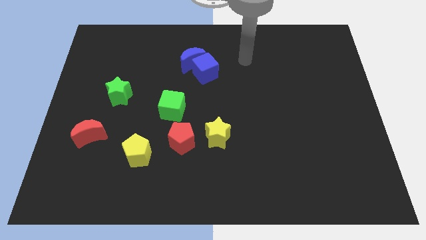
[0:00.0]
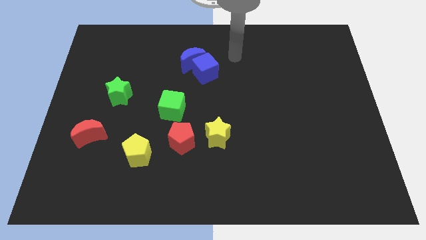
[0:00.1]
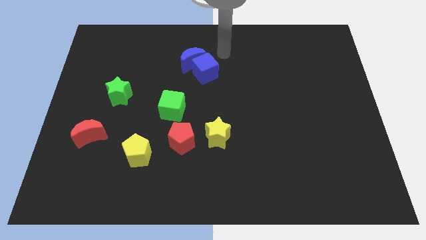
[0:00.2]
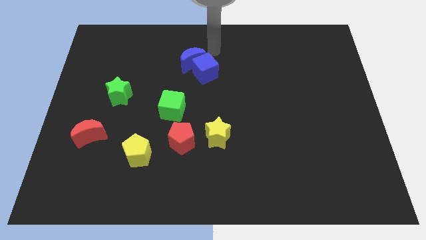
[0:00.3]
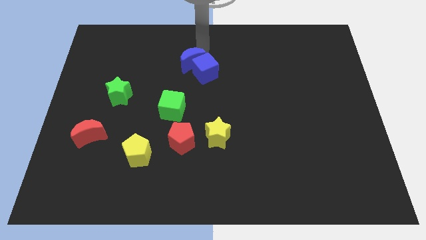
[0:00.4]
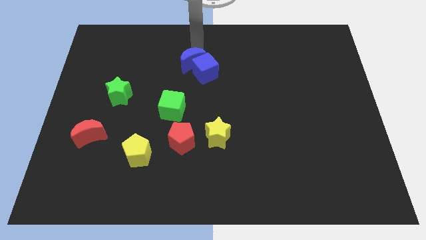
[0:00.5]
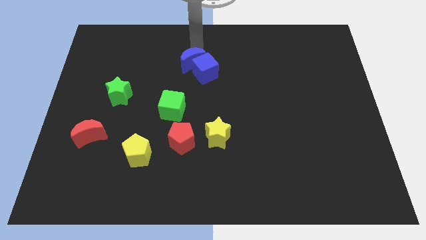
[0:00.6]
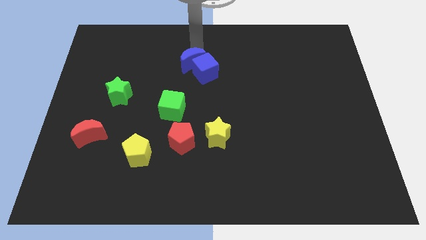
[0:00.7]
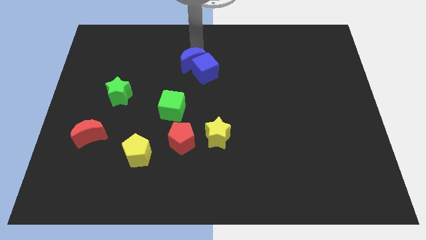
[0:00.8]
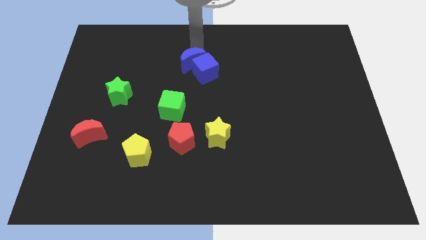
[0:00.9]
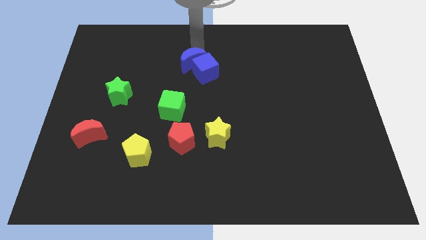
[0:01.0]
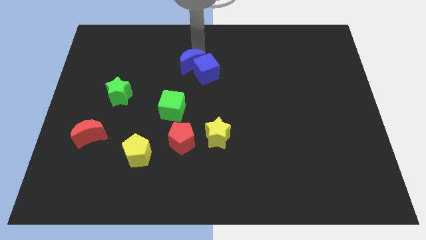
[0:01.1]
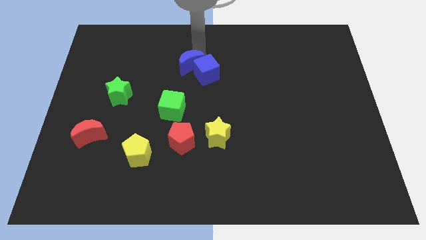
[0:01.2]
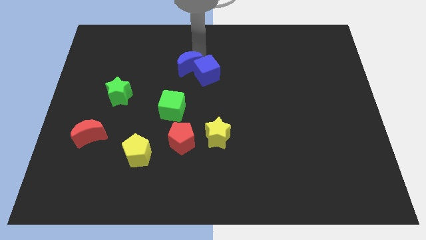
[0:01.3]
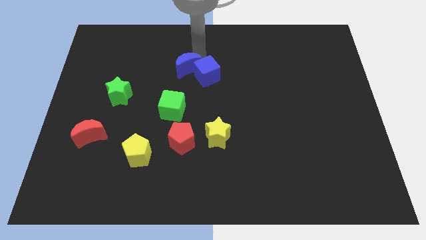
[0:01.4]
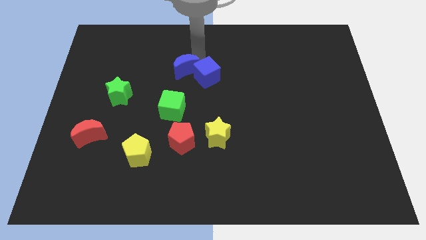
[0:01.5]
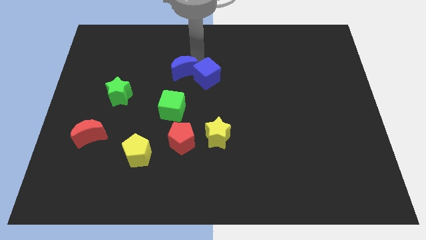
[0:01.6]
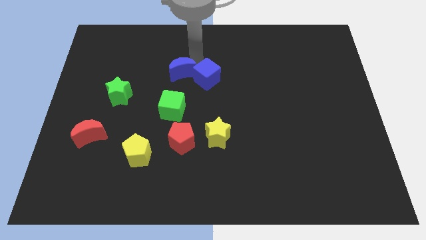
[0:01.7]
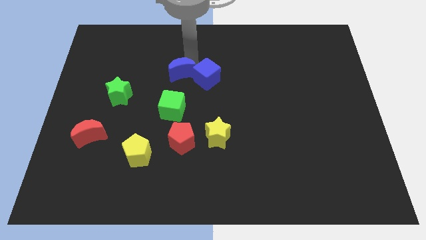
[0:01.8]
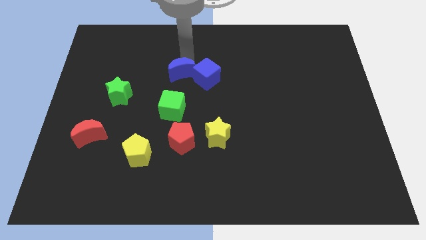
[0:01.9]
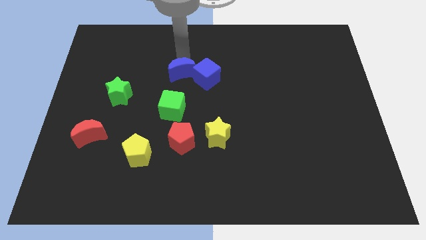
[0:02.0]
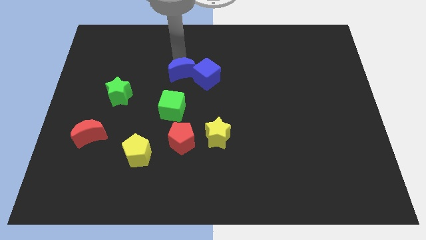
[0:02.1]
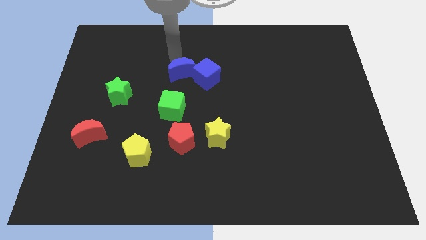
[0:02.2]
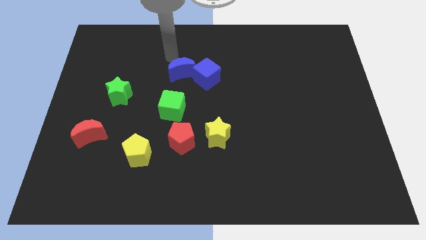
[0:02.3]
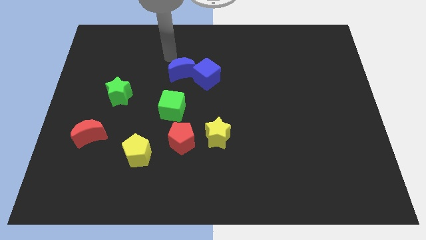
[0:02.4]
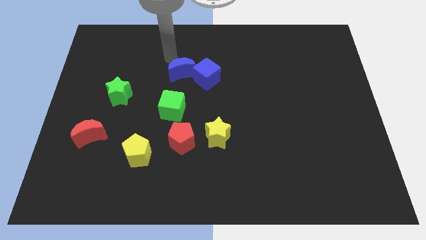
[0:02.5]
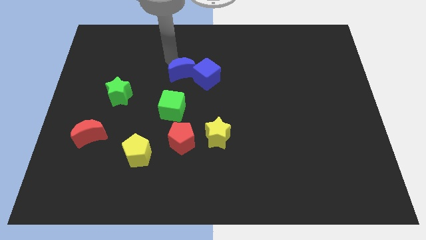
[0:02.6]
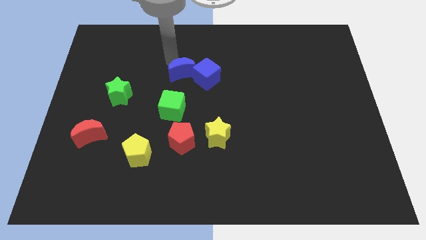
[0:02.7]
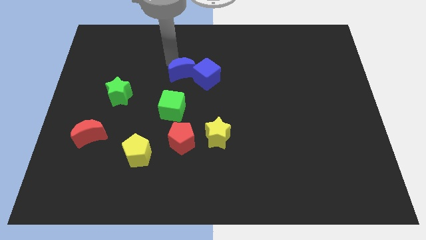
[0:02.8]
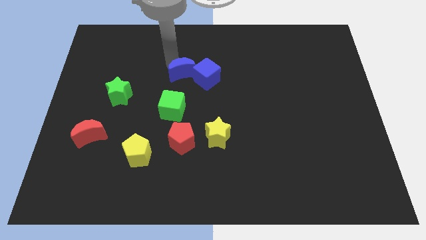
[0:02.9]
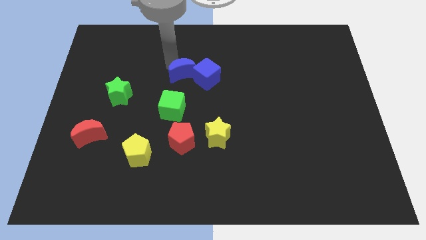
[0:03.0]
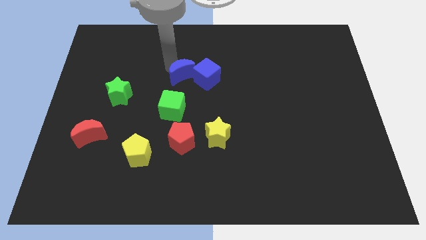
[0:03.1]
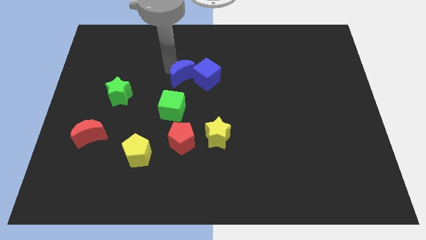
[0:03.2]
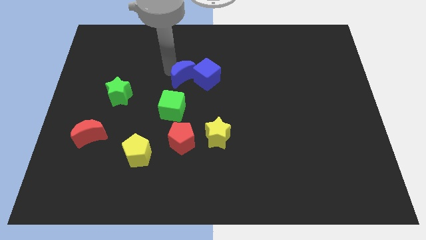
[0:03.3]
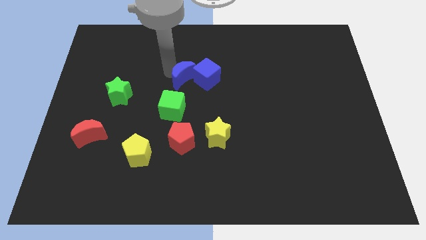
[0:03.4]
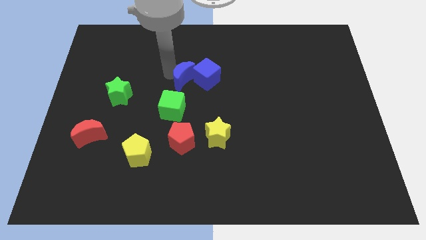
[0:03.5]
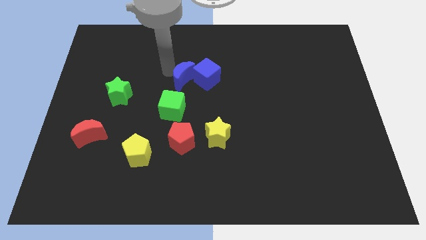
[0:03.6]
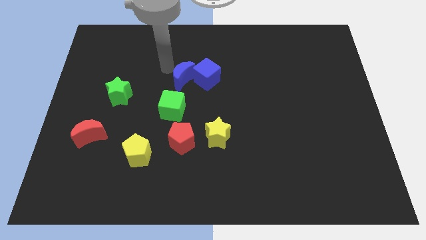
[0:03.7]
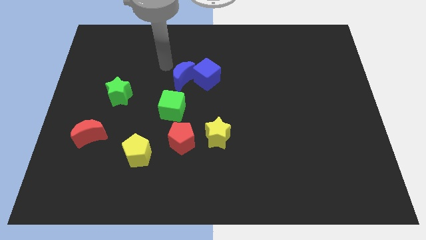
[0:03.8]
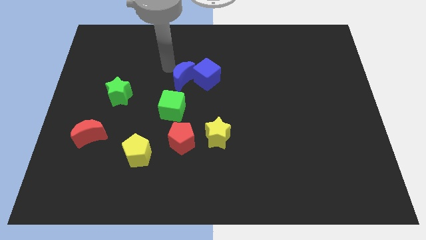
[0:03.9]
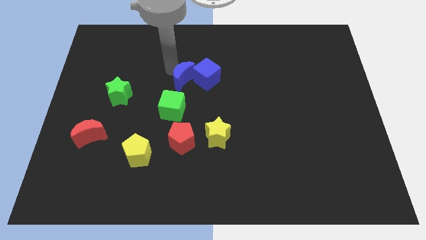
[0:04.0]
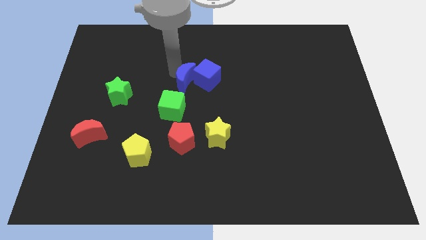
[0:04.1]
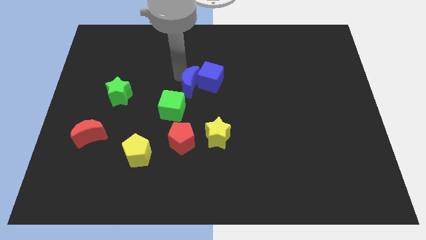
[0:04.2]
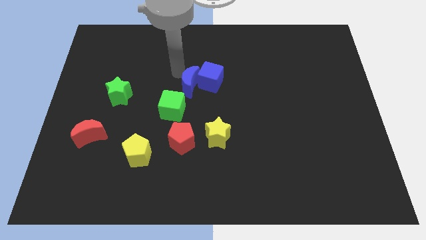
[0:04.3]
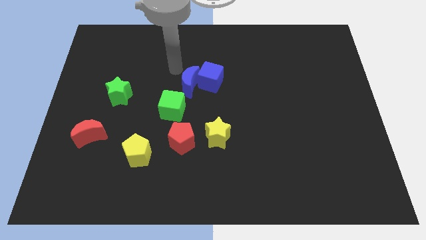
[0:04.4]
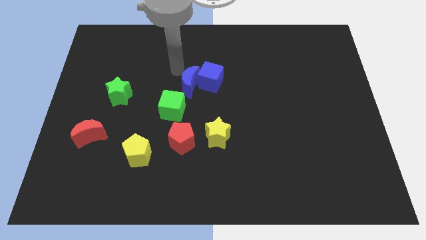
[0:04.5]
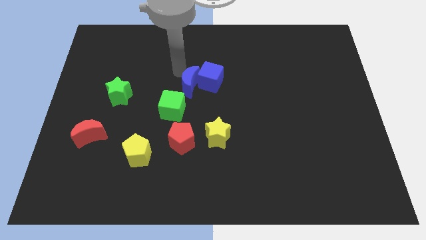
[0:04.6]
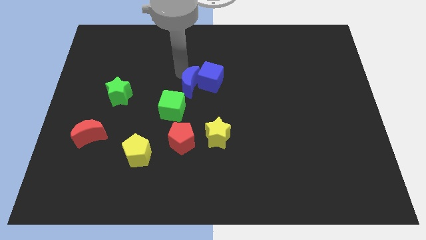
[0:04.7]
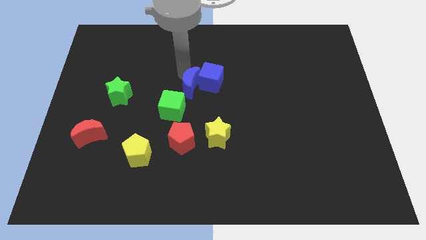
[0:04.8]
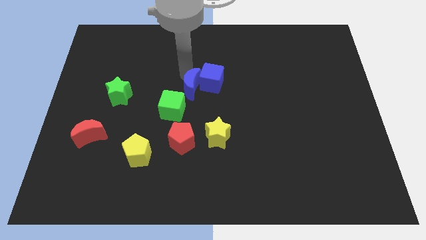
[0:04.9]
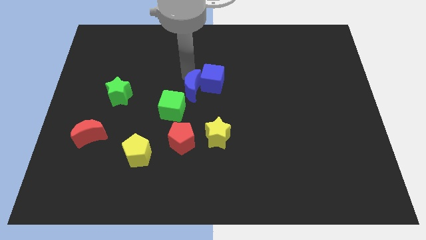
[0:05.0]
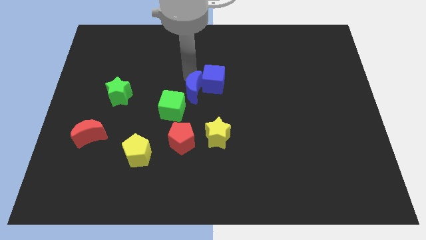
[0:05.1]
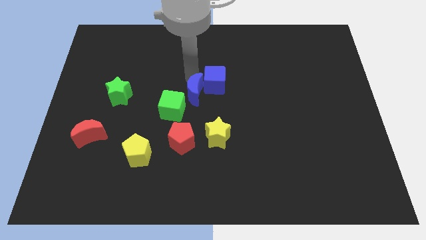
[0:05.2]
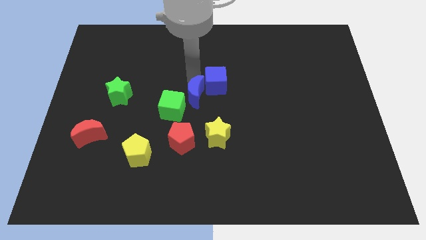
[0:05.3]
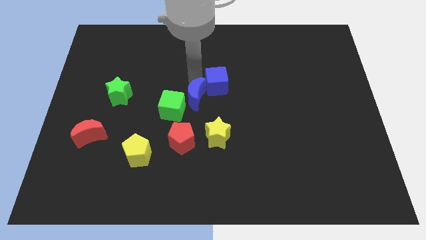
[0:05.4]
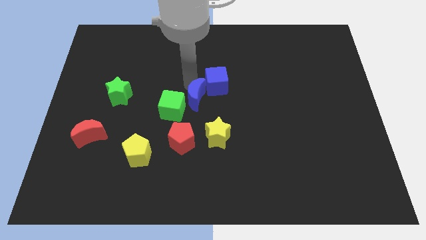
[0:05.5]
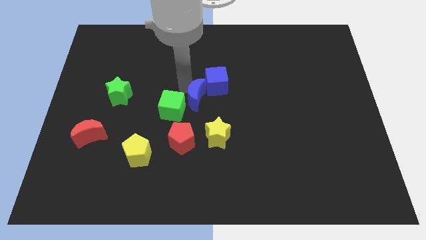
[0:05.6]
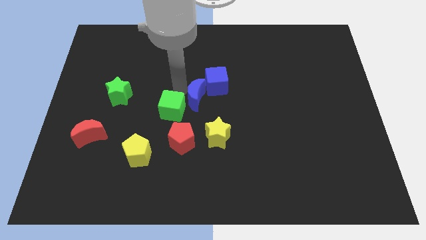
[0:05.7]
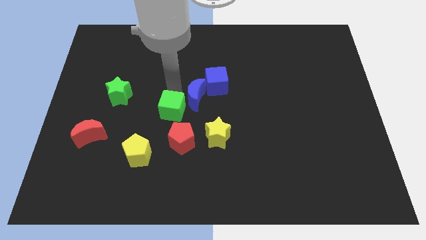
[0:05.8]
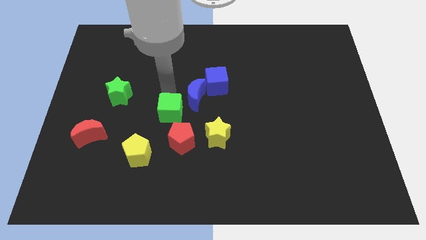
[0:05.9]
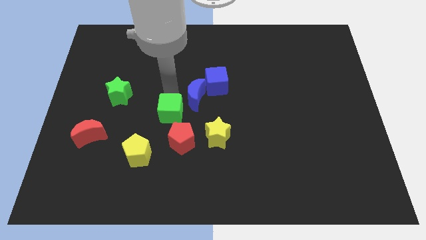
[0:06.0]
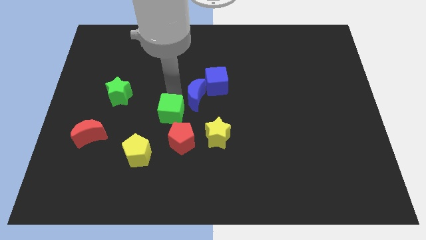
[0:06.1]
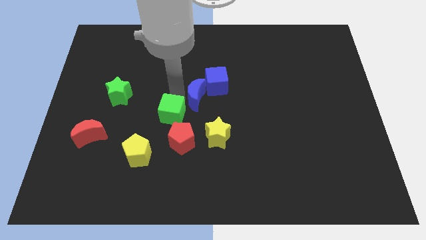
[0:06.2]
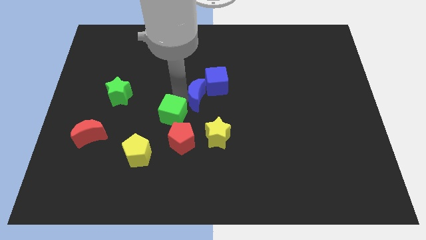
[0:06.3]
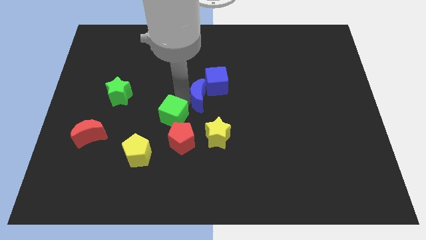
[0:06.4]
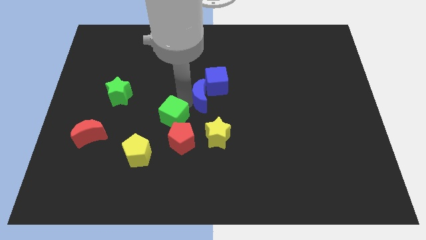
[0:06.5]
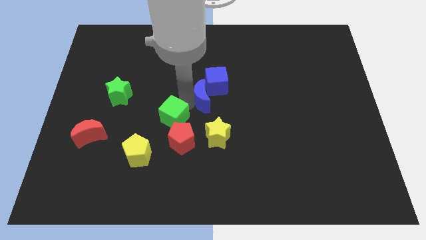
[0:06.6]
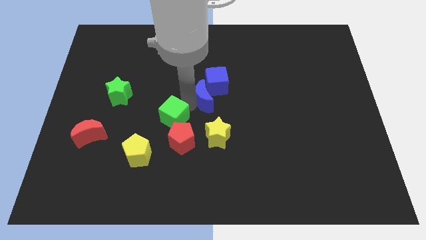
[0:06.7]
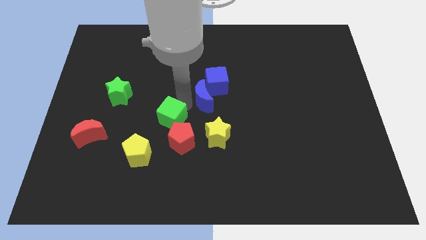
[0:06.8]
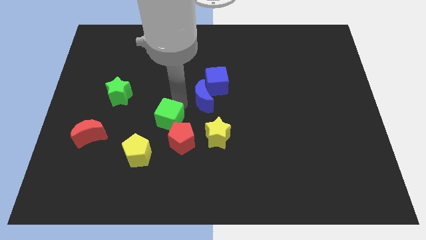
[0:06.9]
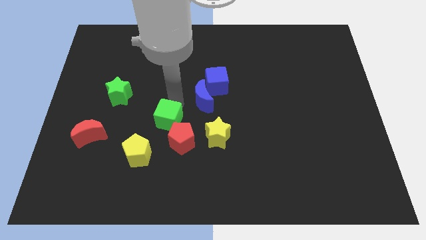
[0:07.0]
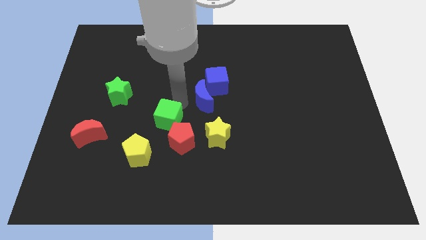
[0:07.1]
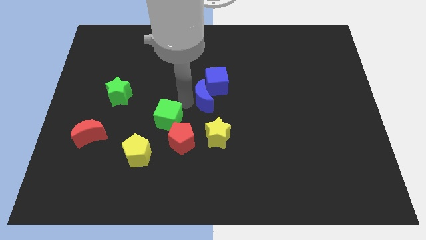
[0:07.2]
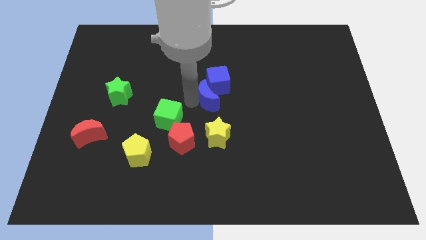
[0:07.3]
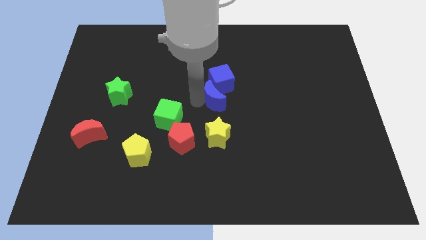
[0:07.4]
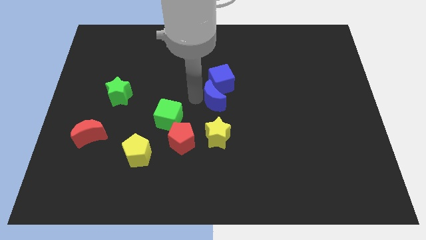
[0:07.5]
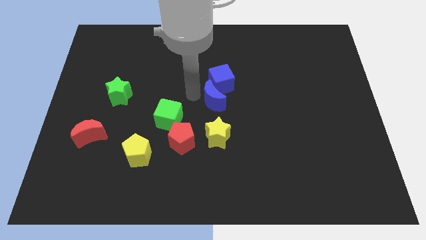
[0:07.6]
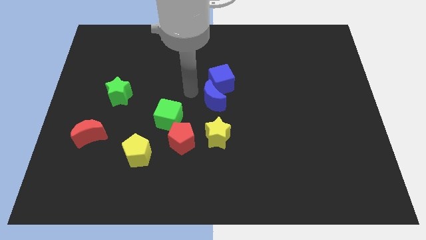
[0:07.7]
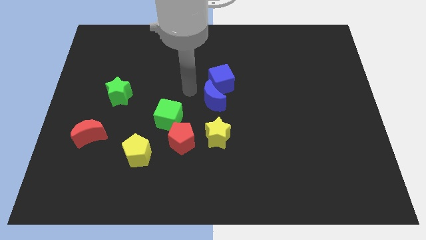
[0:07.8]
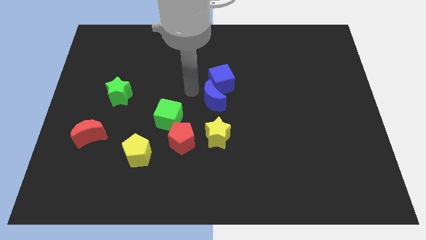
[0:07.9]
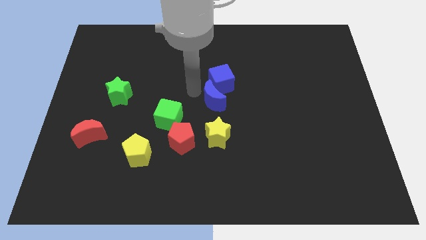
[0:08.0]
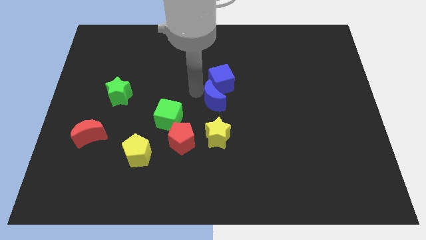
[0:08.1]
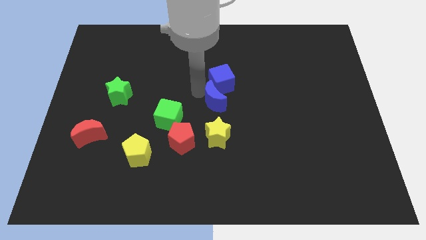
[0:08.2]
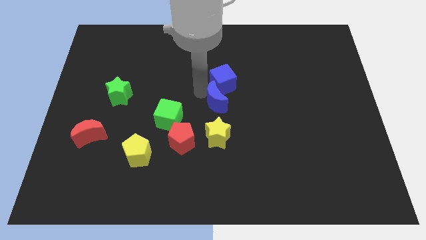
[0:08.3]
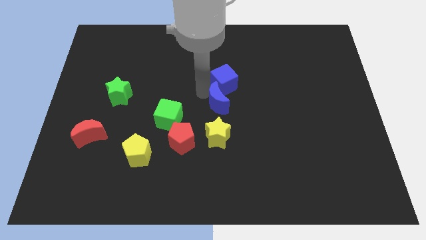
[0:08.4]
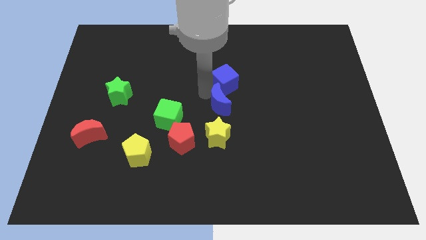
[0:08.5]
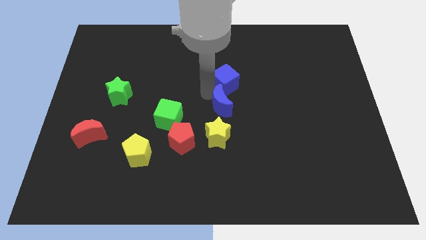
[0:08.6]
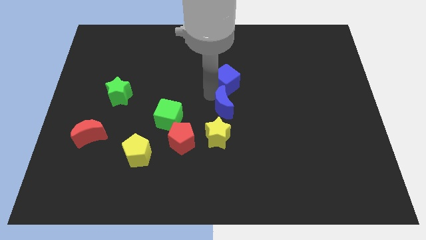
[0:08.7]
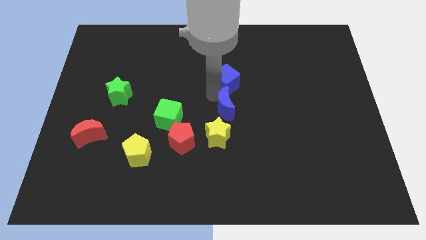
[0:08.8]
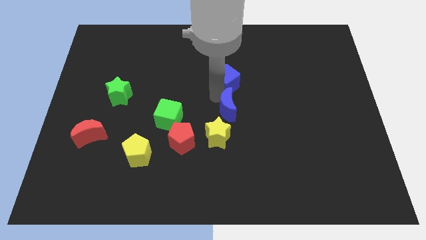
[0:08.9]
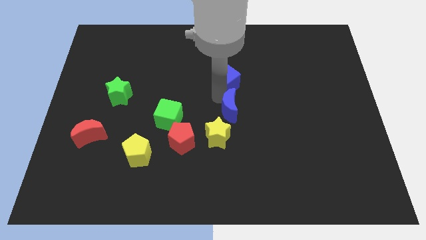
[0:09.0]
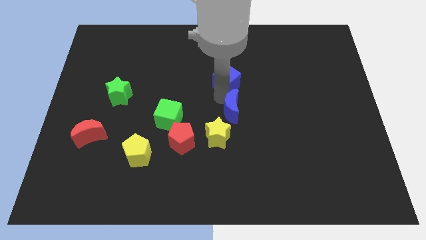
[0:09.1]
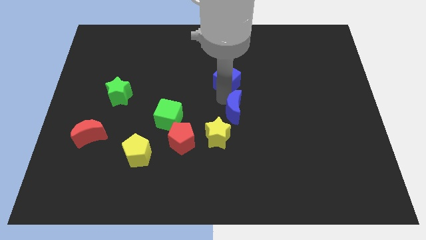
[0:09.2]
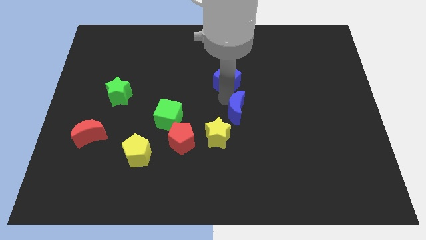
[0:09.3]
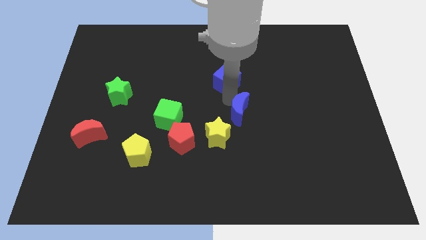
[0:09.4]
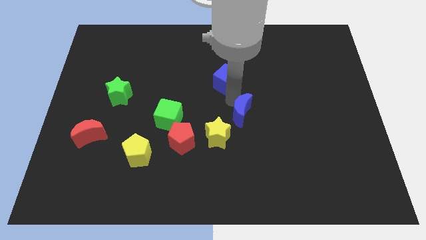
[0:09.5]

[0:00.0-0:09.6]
slide the blue moon down and to the right diagonally
